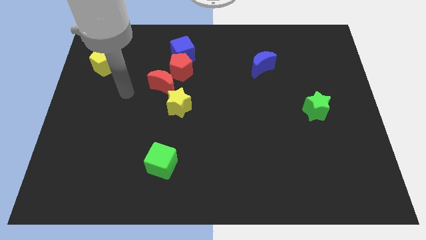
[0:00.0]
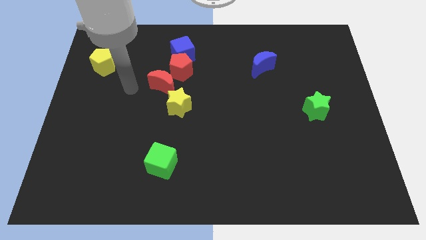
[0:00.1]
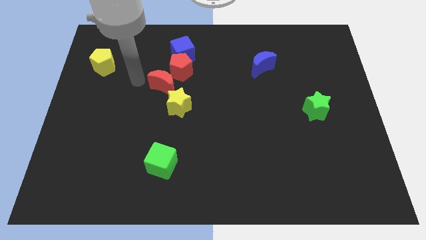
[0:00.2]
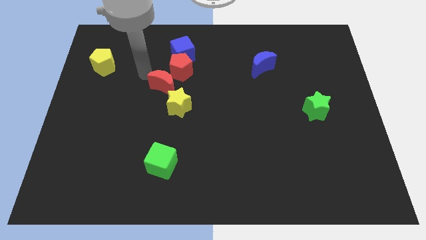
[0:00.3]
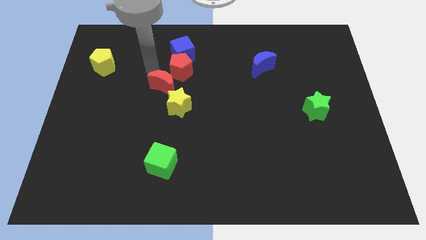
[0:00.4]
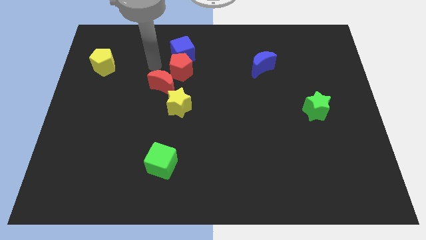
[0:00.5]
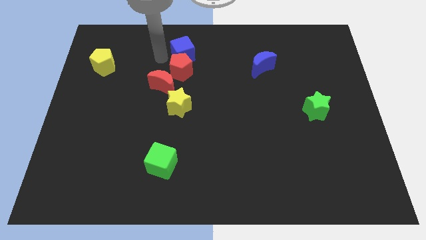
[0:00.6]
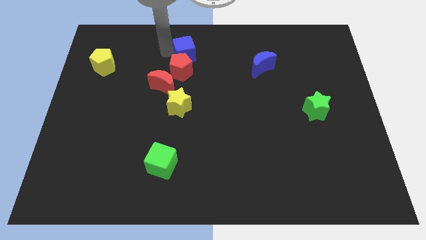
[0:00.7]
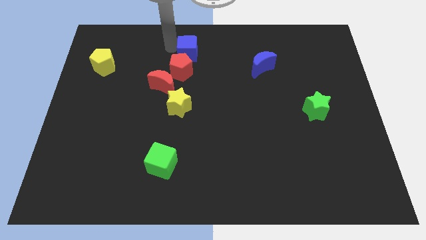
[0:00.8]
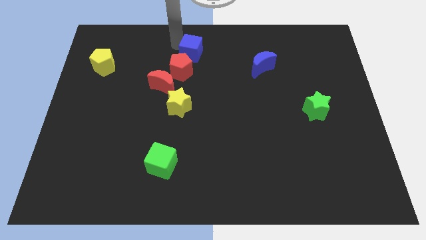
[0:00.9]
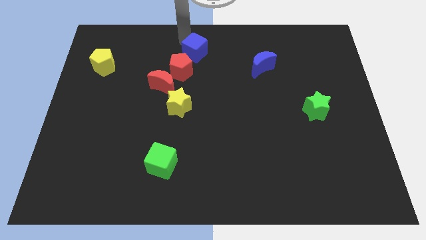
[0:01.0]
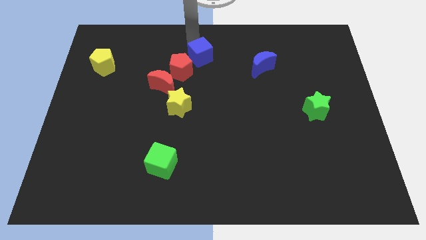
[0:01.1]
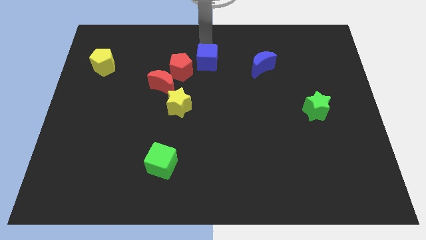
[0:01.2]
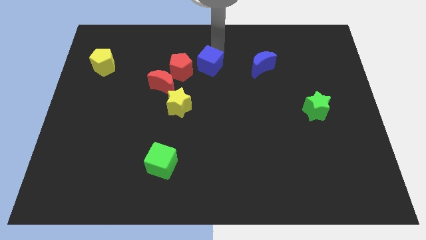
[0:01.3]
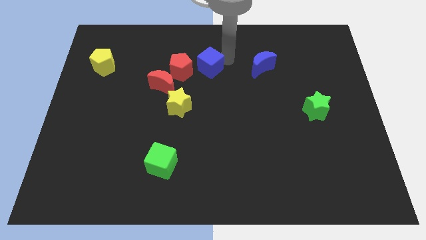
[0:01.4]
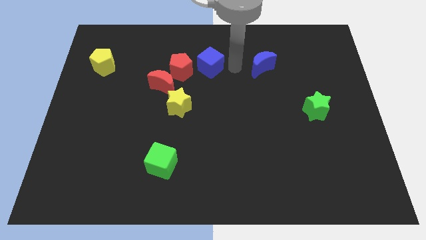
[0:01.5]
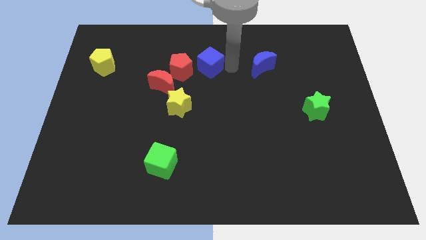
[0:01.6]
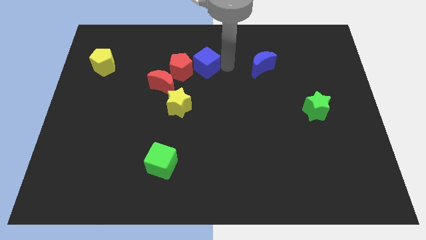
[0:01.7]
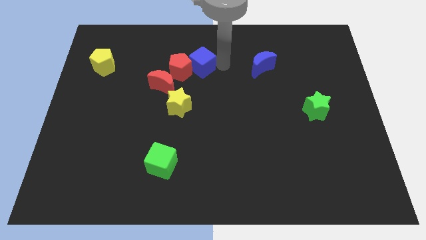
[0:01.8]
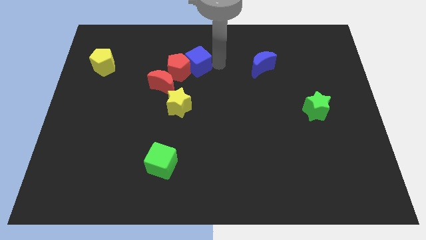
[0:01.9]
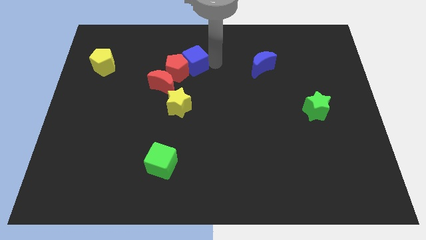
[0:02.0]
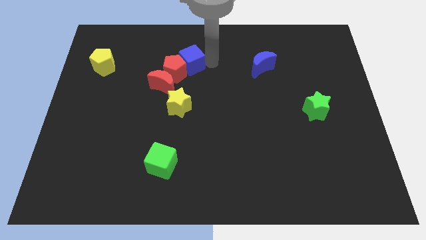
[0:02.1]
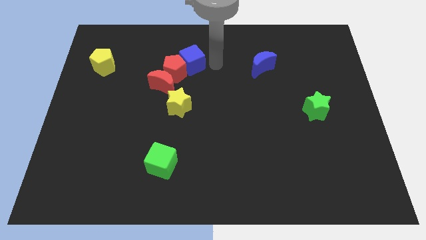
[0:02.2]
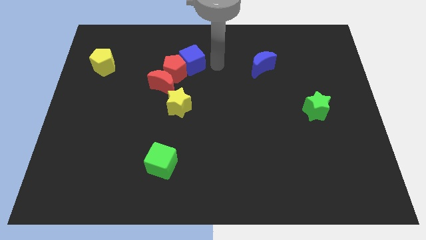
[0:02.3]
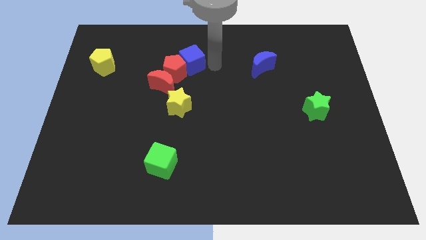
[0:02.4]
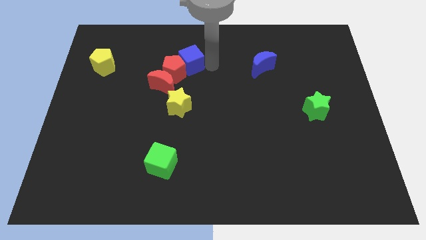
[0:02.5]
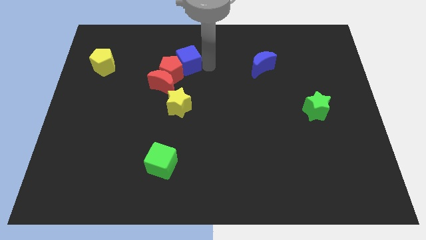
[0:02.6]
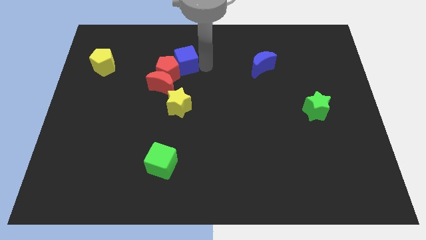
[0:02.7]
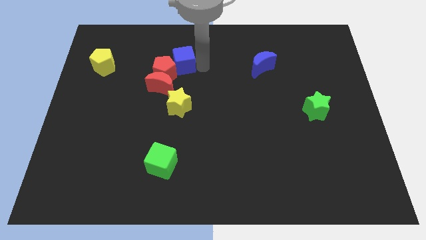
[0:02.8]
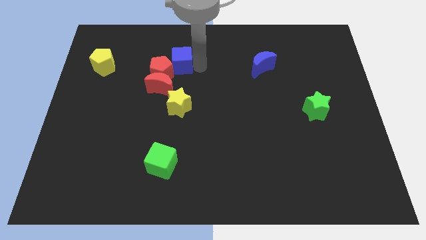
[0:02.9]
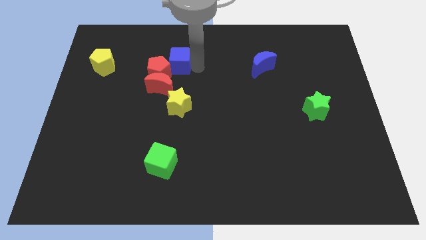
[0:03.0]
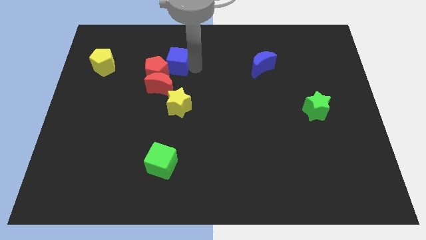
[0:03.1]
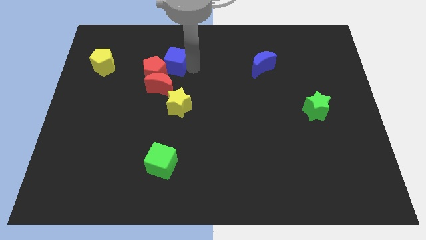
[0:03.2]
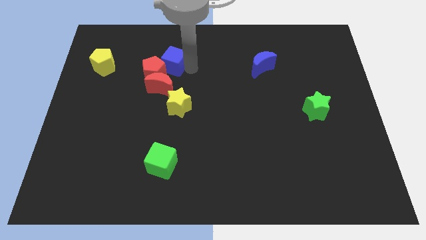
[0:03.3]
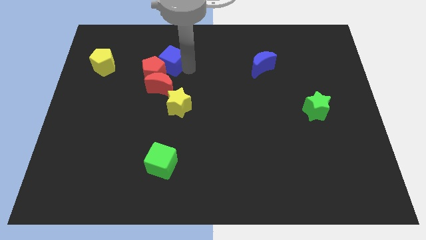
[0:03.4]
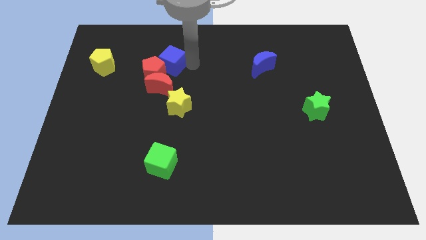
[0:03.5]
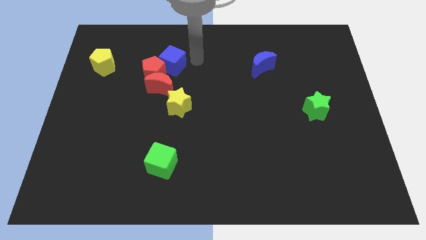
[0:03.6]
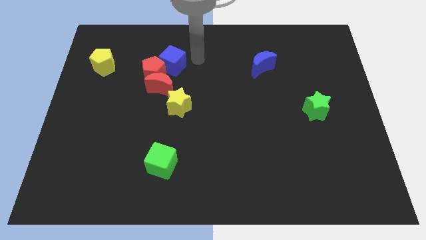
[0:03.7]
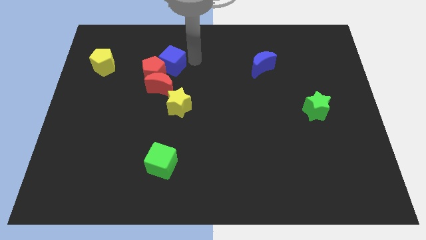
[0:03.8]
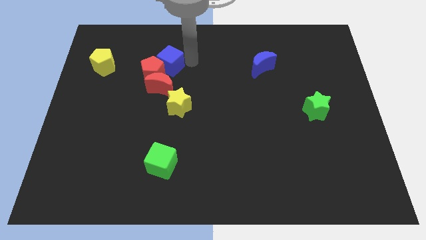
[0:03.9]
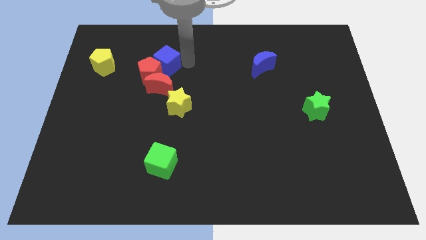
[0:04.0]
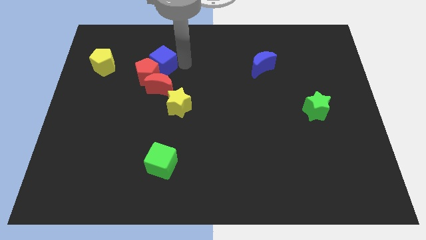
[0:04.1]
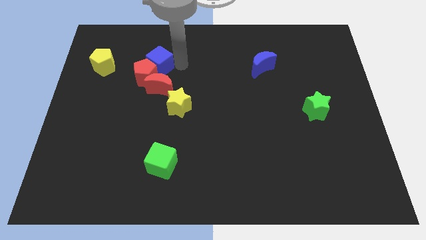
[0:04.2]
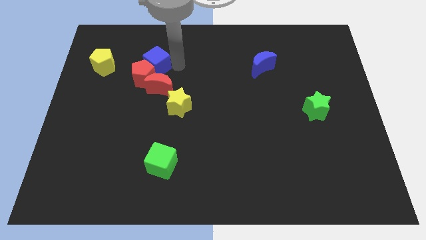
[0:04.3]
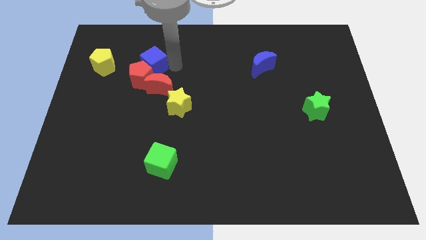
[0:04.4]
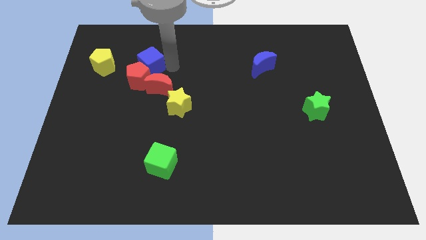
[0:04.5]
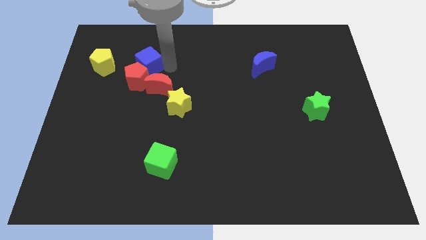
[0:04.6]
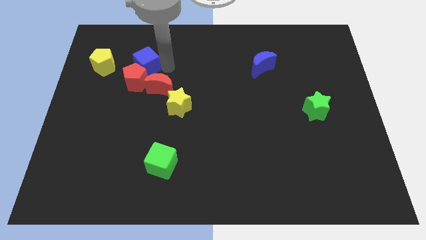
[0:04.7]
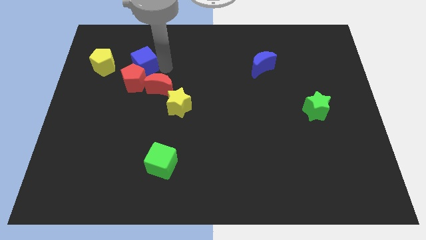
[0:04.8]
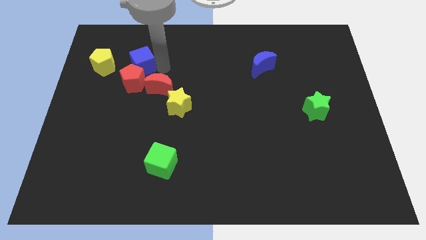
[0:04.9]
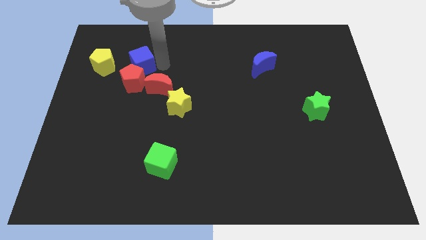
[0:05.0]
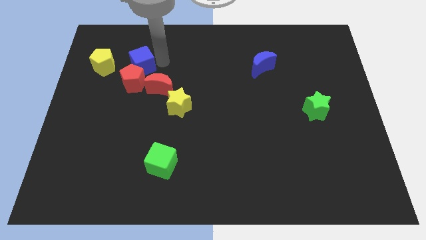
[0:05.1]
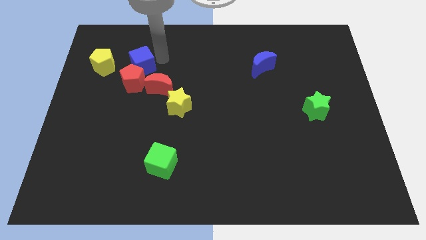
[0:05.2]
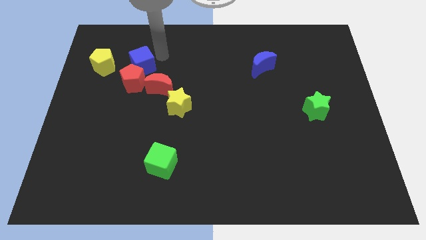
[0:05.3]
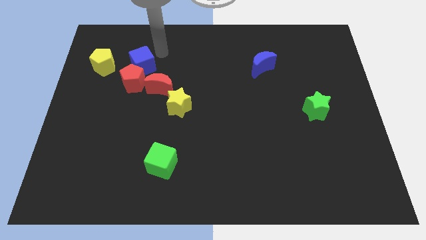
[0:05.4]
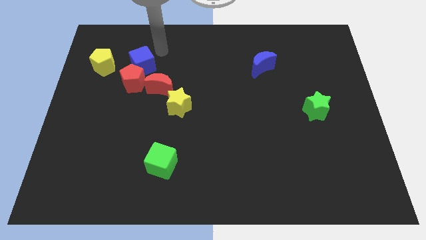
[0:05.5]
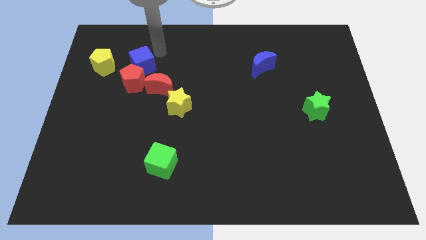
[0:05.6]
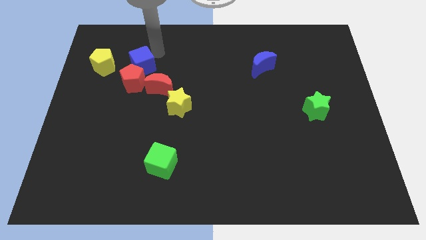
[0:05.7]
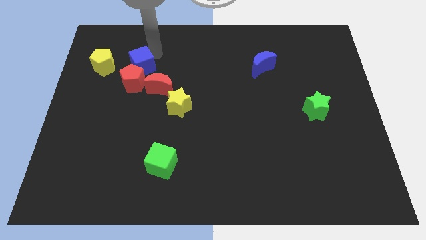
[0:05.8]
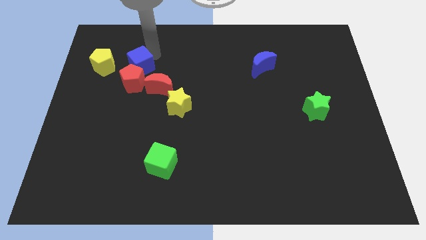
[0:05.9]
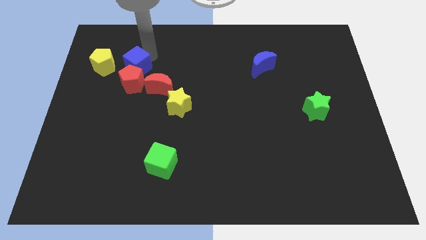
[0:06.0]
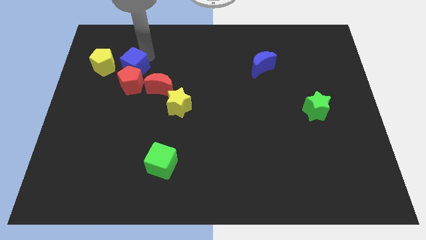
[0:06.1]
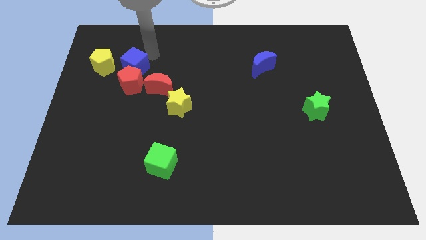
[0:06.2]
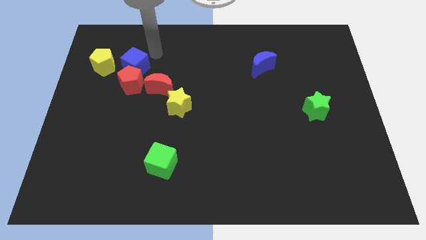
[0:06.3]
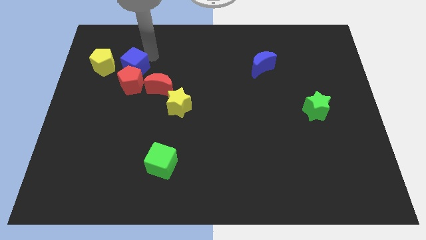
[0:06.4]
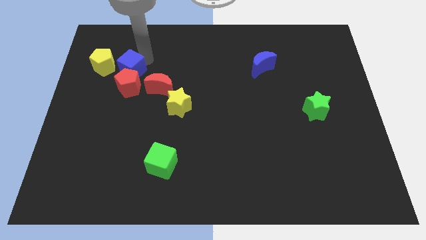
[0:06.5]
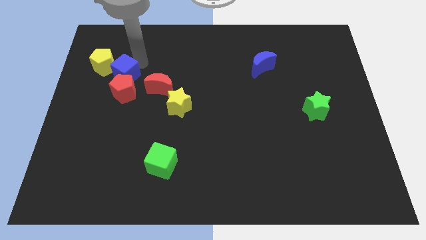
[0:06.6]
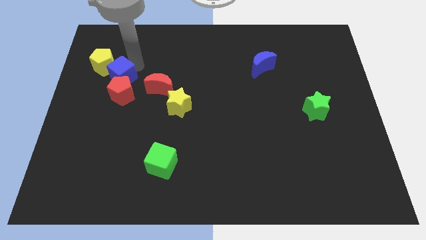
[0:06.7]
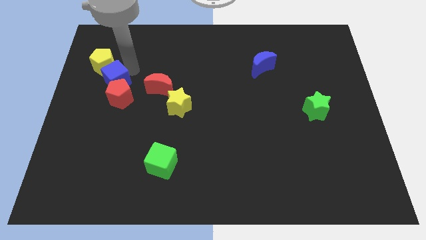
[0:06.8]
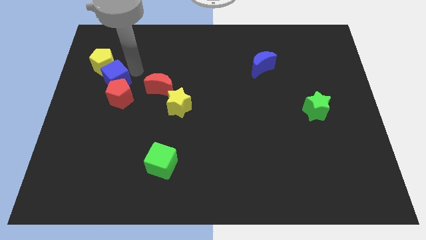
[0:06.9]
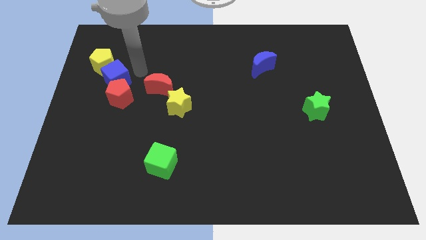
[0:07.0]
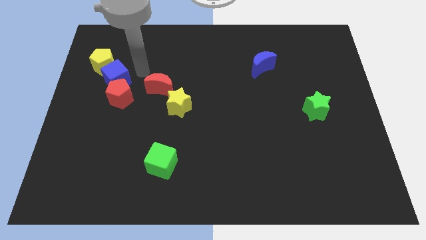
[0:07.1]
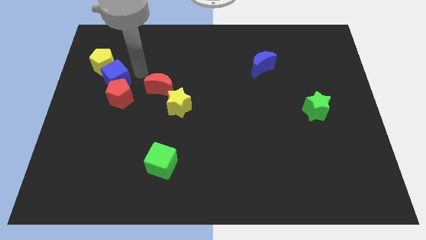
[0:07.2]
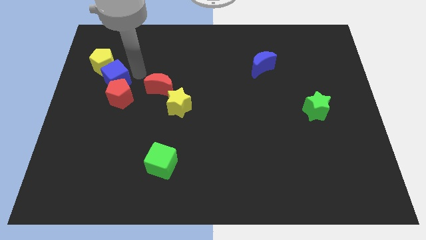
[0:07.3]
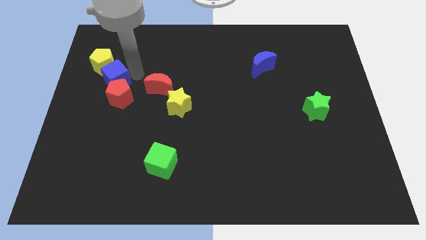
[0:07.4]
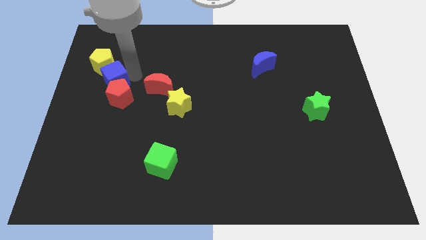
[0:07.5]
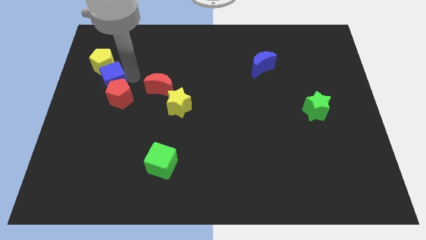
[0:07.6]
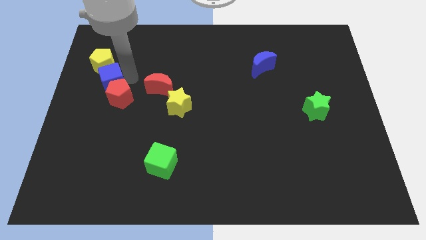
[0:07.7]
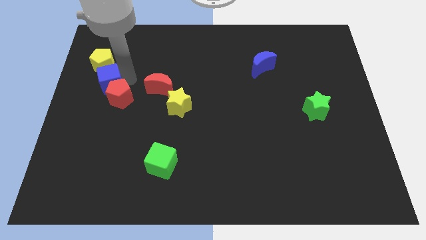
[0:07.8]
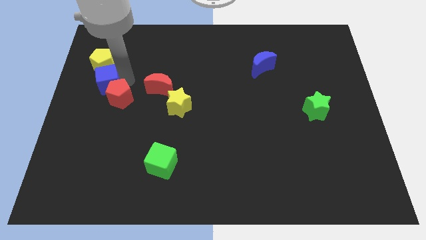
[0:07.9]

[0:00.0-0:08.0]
move the blue cube to the center left

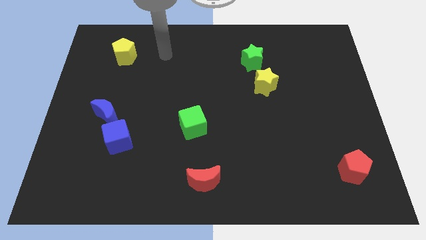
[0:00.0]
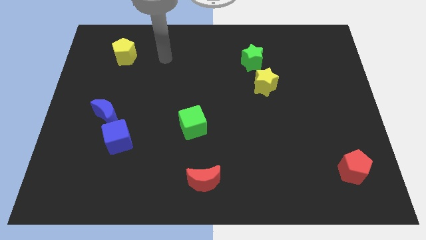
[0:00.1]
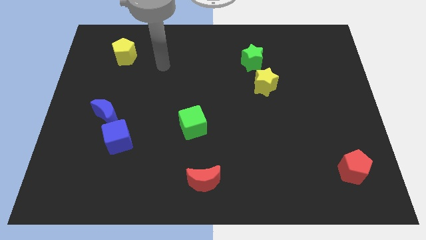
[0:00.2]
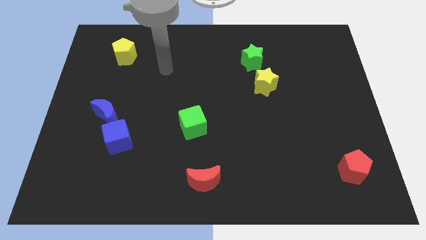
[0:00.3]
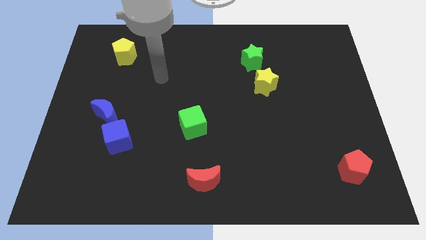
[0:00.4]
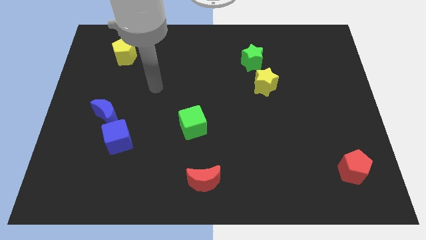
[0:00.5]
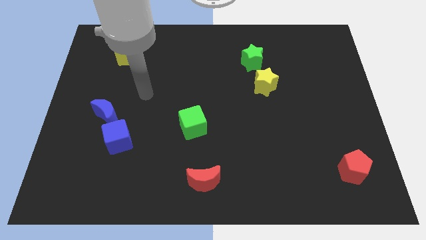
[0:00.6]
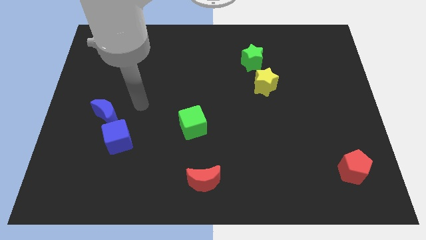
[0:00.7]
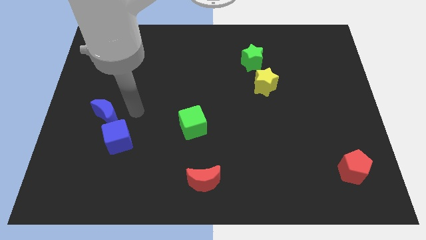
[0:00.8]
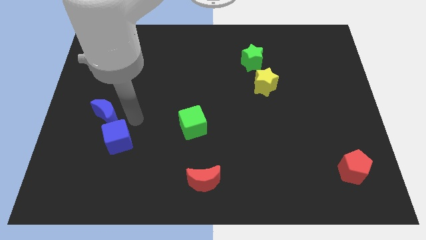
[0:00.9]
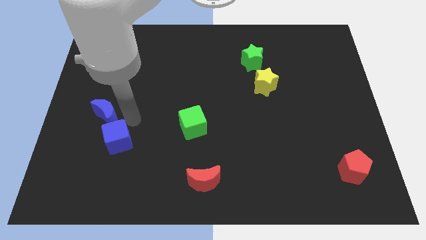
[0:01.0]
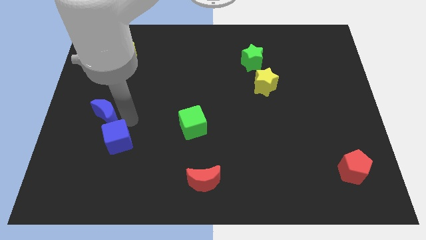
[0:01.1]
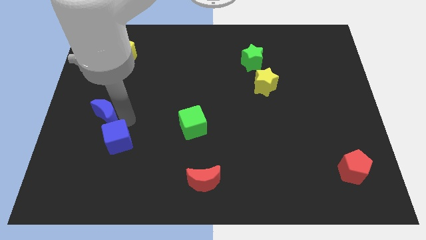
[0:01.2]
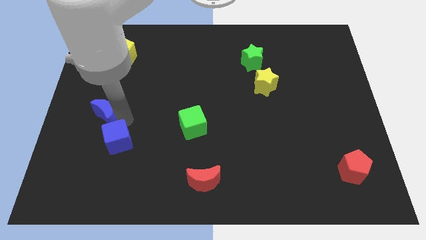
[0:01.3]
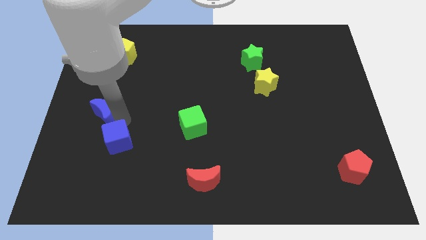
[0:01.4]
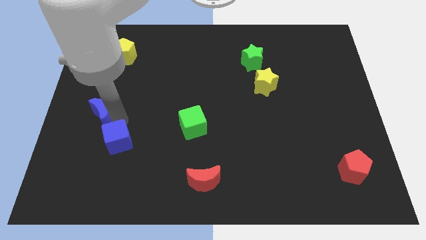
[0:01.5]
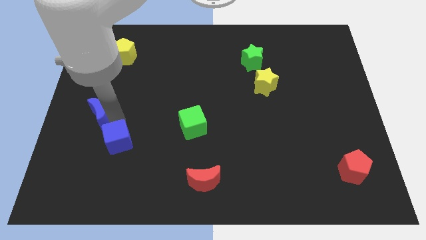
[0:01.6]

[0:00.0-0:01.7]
put the blue moon to the left side
